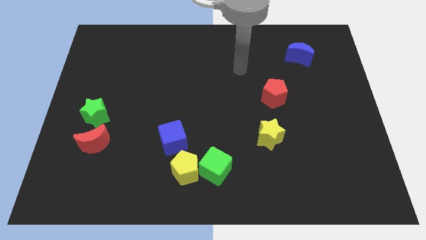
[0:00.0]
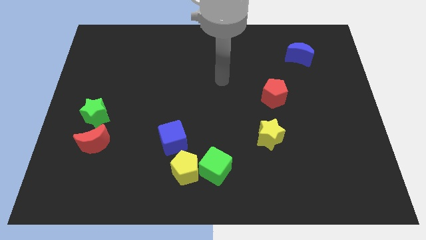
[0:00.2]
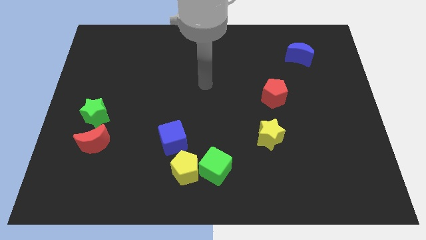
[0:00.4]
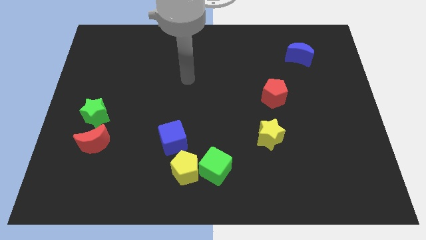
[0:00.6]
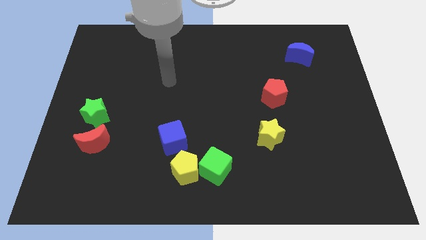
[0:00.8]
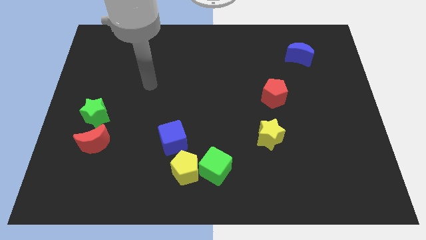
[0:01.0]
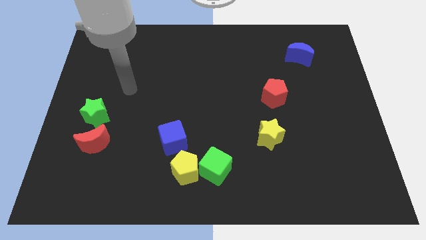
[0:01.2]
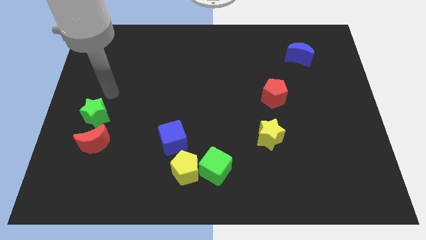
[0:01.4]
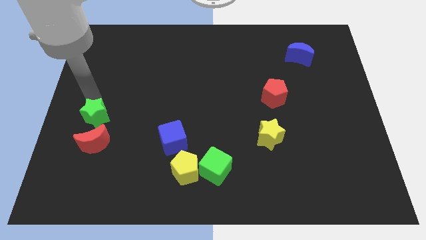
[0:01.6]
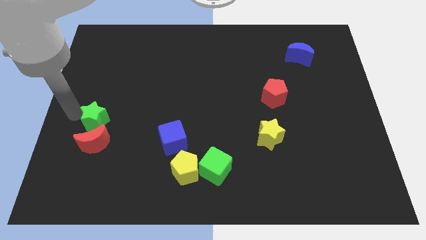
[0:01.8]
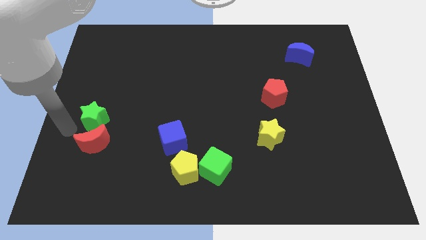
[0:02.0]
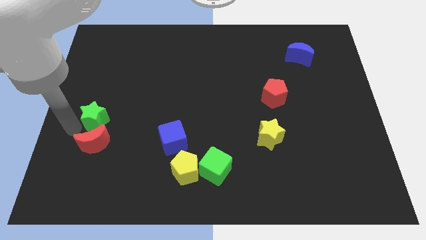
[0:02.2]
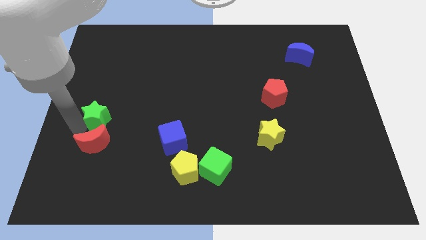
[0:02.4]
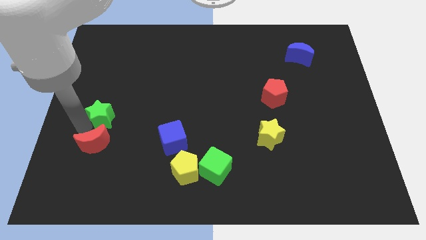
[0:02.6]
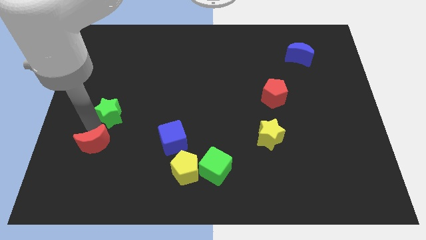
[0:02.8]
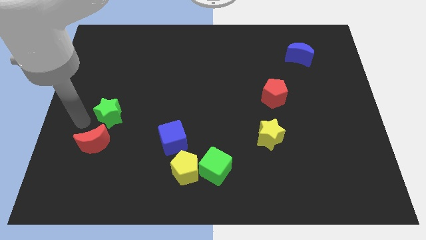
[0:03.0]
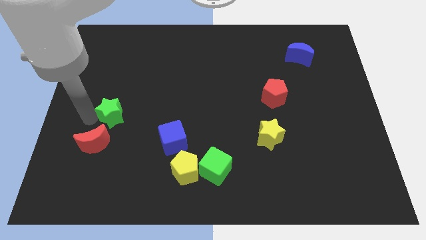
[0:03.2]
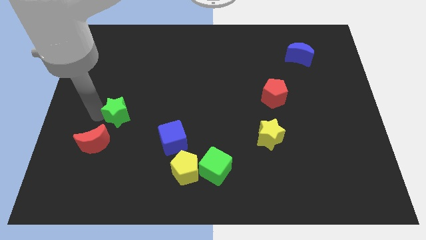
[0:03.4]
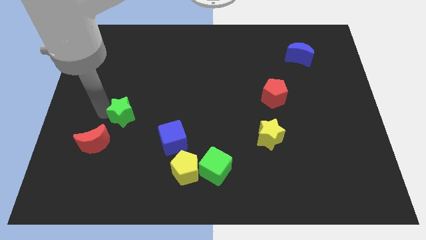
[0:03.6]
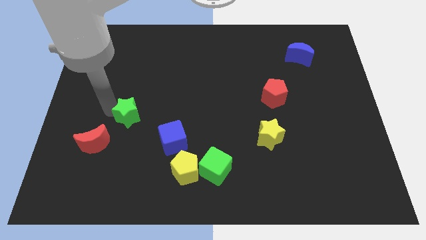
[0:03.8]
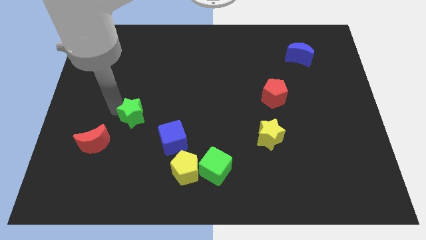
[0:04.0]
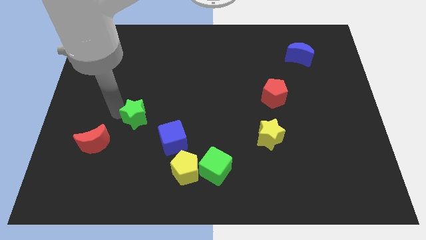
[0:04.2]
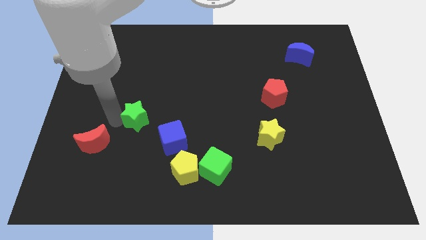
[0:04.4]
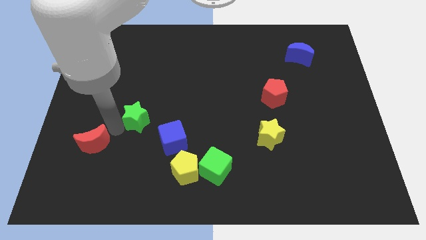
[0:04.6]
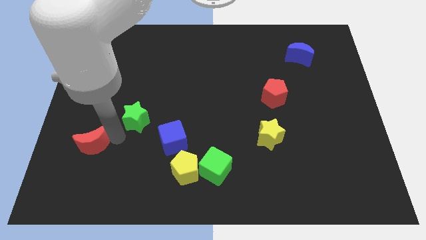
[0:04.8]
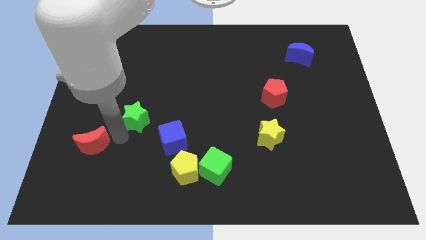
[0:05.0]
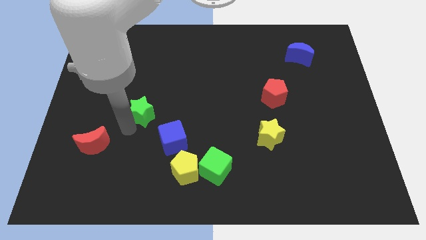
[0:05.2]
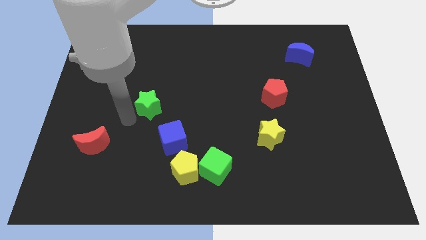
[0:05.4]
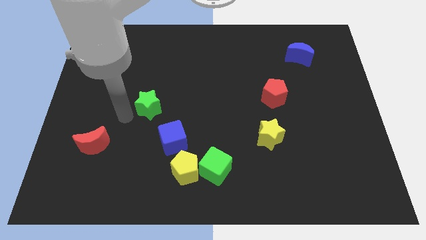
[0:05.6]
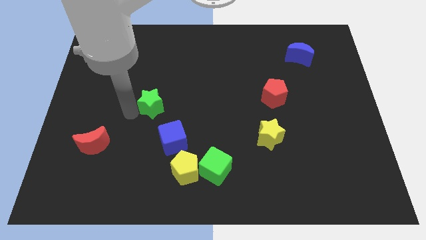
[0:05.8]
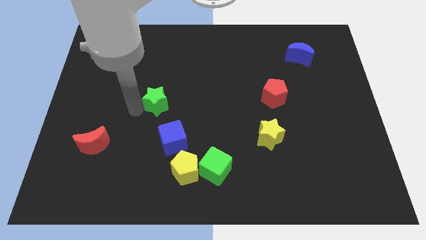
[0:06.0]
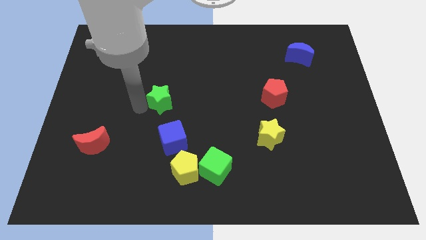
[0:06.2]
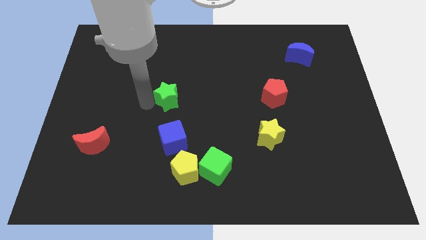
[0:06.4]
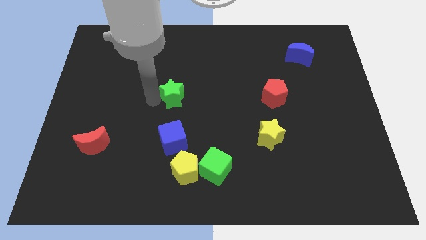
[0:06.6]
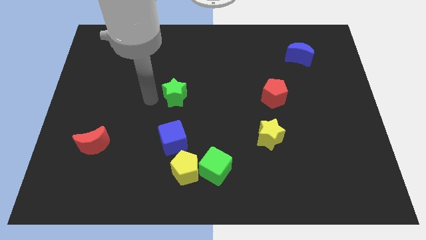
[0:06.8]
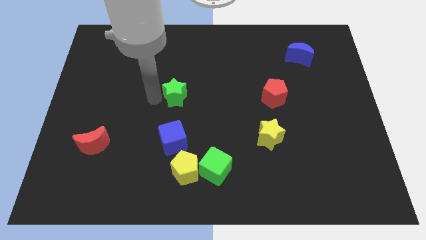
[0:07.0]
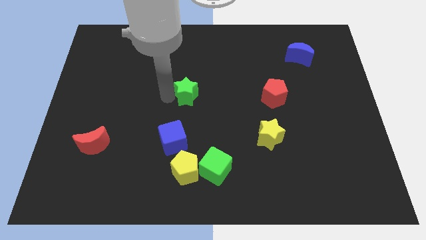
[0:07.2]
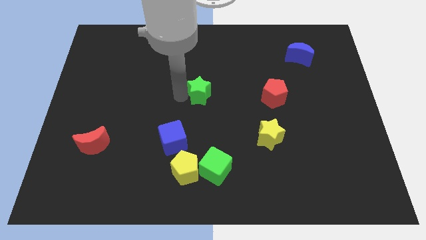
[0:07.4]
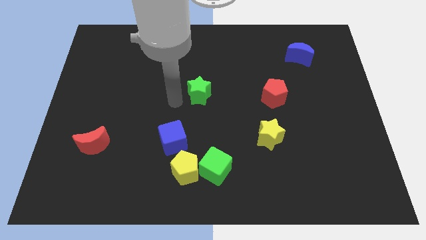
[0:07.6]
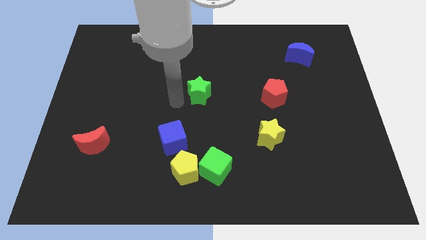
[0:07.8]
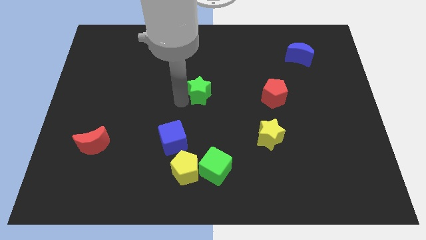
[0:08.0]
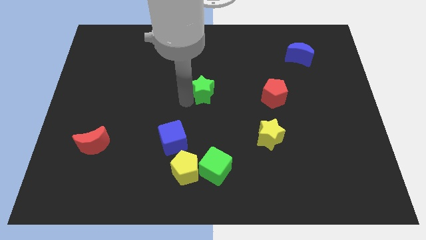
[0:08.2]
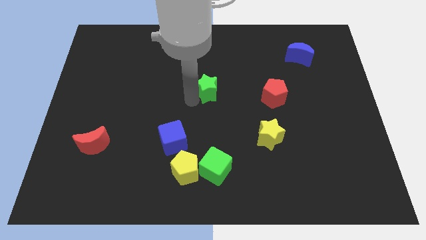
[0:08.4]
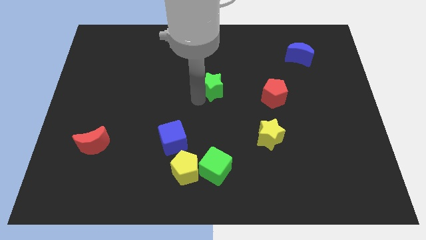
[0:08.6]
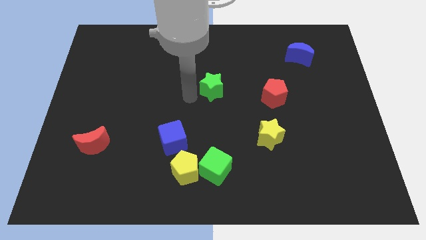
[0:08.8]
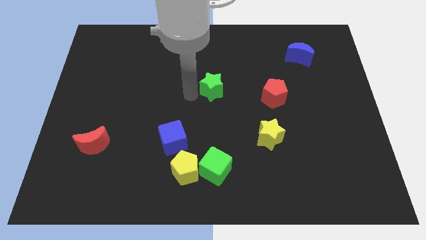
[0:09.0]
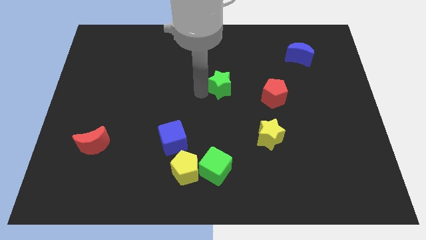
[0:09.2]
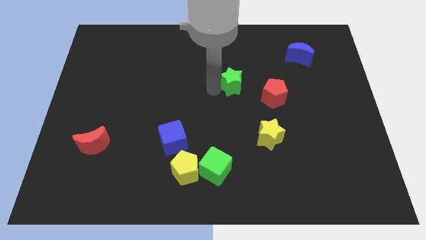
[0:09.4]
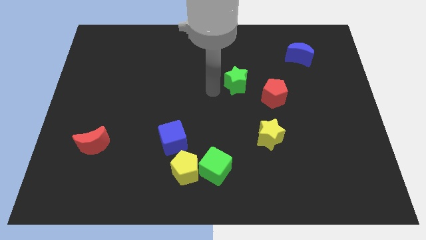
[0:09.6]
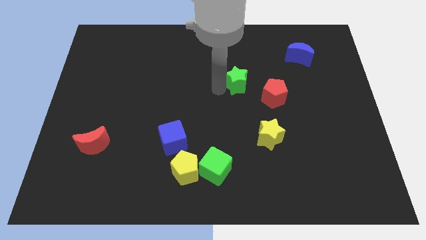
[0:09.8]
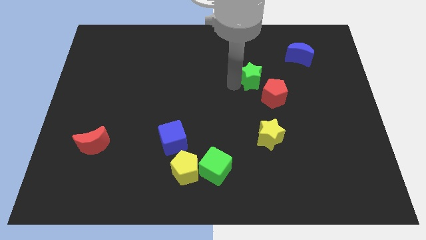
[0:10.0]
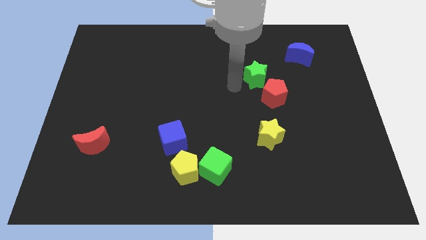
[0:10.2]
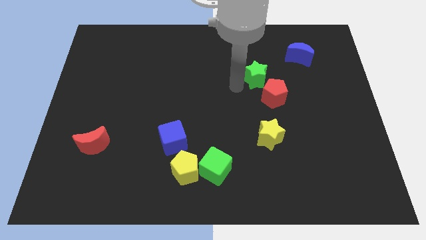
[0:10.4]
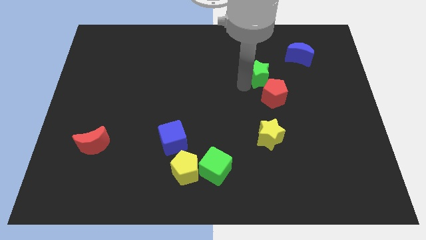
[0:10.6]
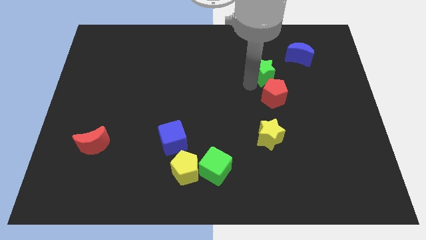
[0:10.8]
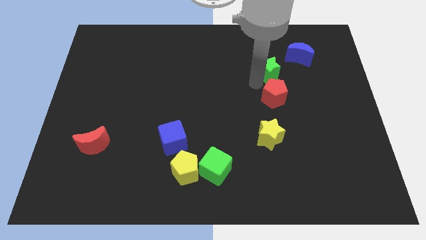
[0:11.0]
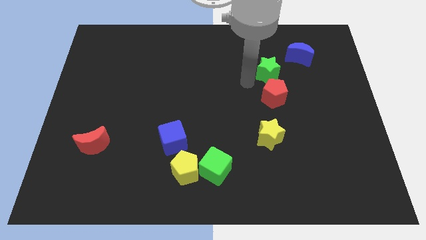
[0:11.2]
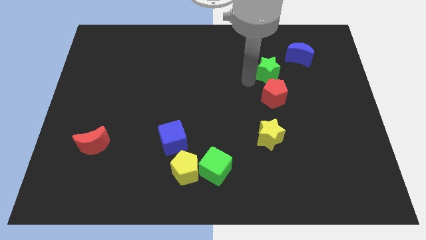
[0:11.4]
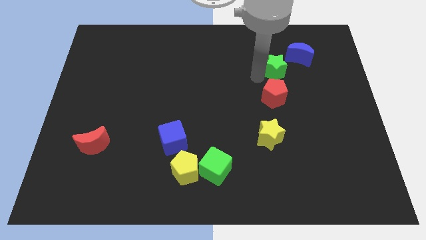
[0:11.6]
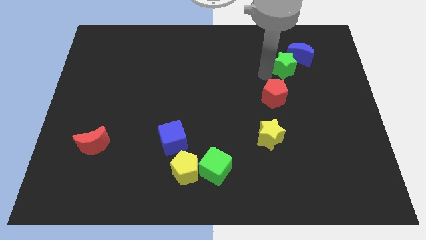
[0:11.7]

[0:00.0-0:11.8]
move the green star towards the blue moon
